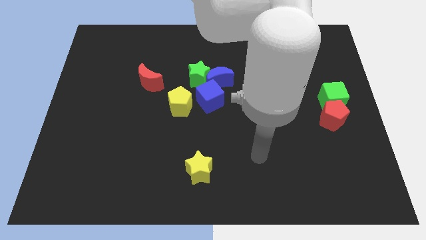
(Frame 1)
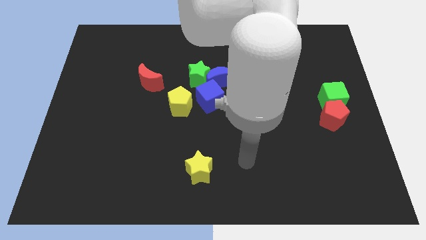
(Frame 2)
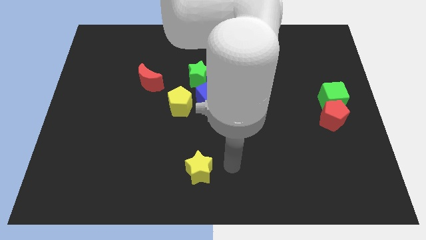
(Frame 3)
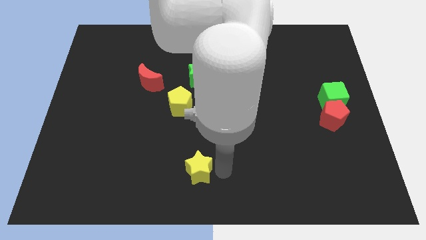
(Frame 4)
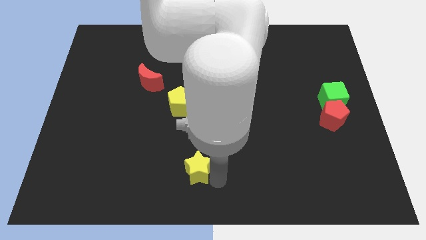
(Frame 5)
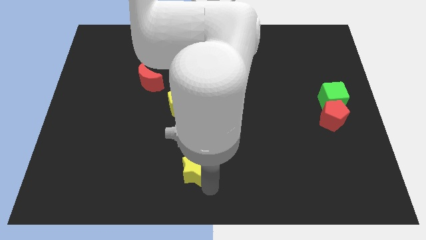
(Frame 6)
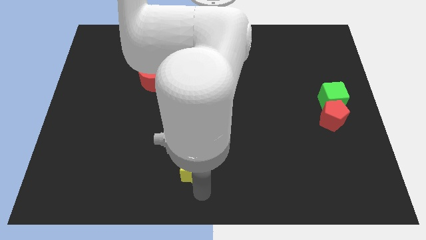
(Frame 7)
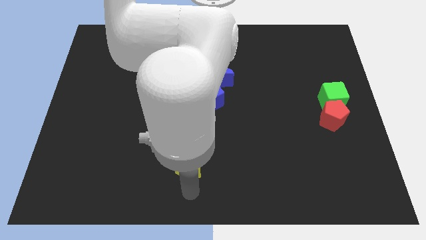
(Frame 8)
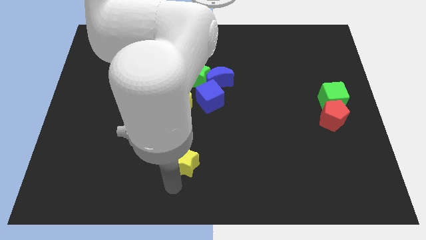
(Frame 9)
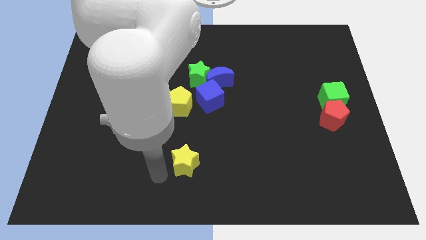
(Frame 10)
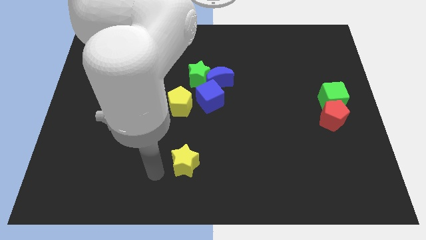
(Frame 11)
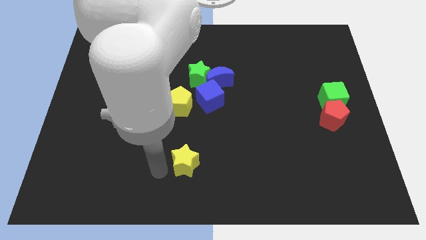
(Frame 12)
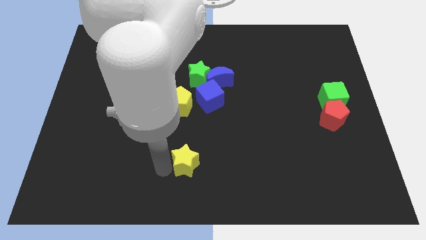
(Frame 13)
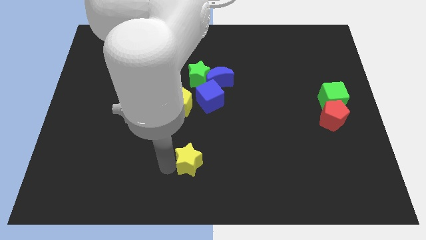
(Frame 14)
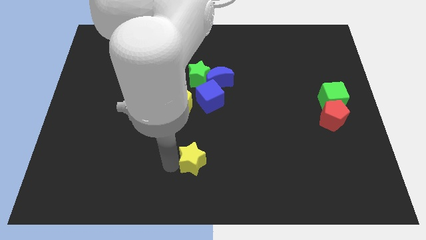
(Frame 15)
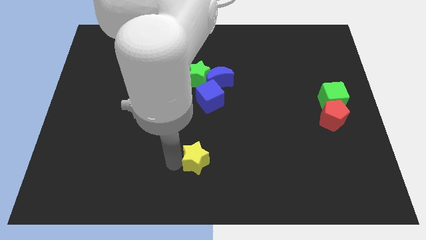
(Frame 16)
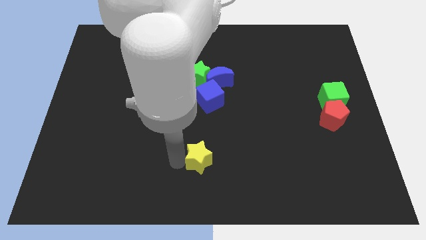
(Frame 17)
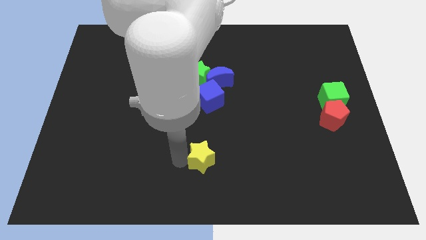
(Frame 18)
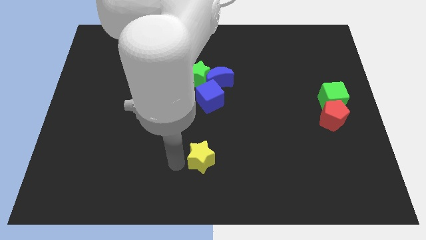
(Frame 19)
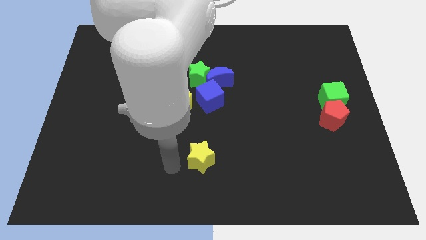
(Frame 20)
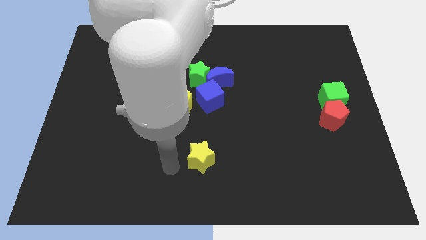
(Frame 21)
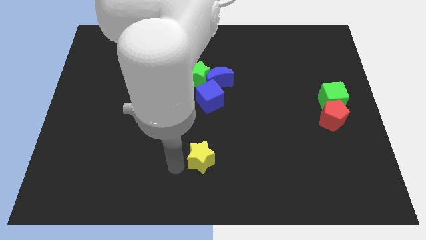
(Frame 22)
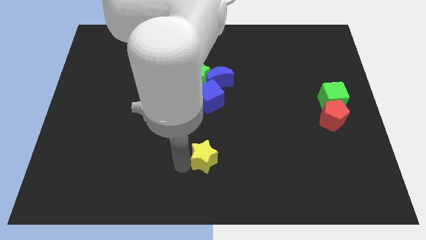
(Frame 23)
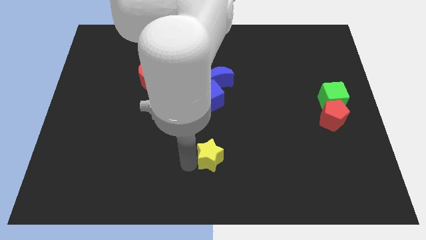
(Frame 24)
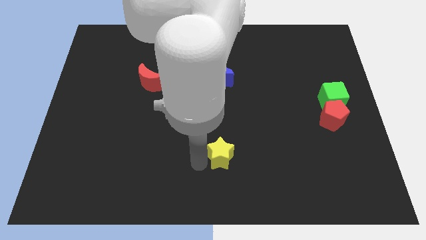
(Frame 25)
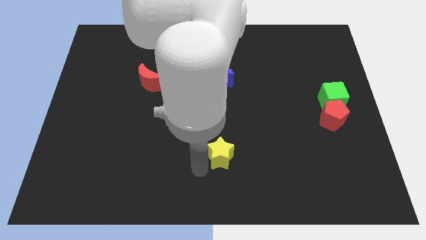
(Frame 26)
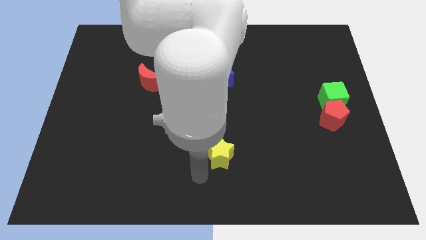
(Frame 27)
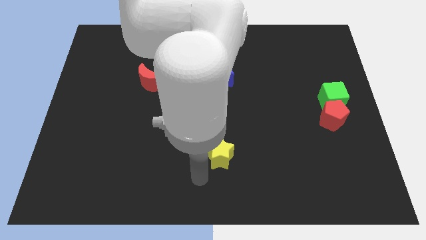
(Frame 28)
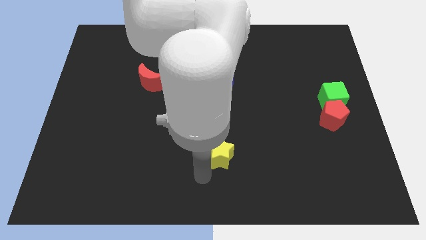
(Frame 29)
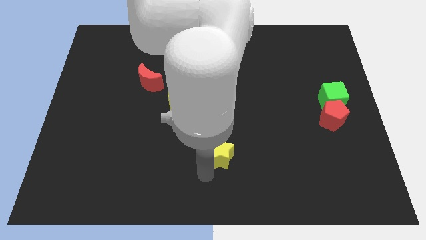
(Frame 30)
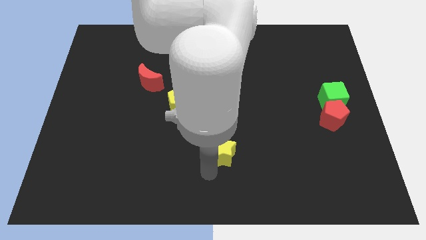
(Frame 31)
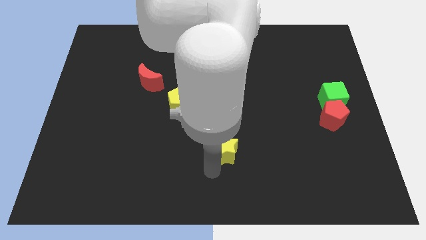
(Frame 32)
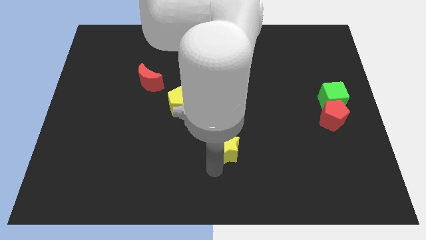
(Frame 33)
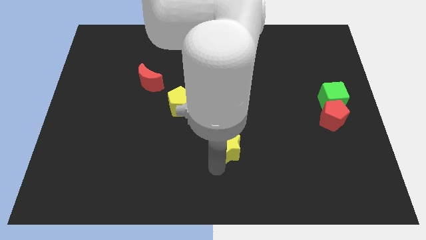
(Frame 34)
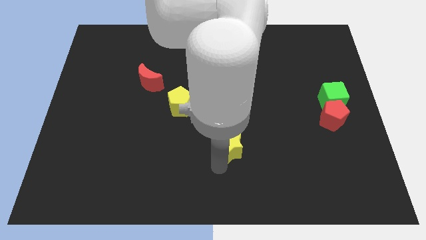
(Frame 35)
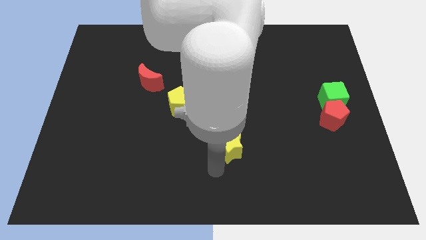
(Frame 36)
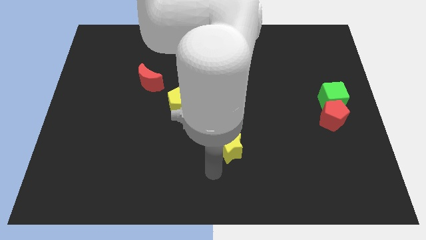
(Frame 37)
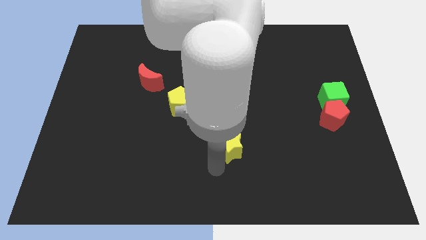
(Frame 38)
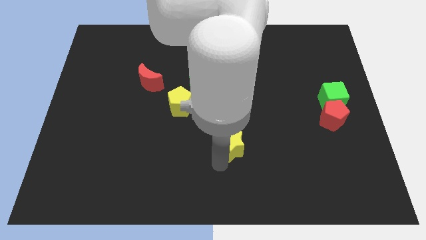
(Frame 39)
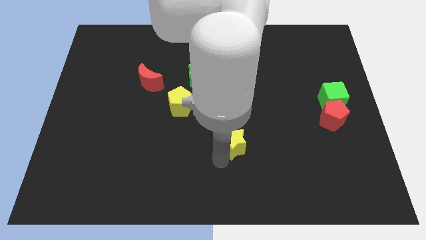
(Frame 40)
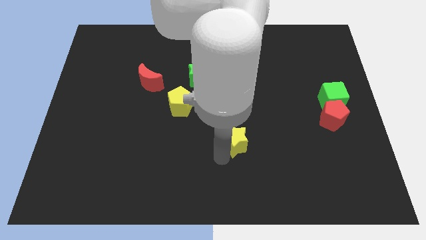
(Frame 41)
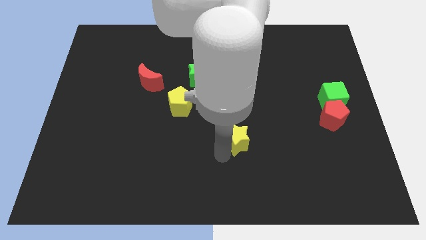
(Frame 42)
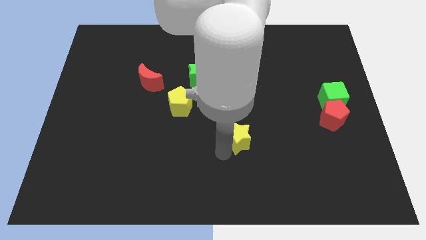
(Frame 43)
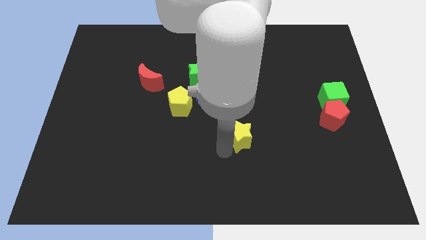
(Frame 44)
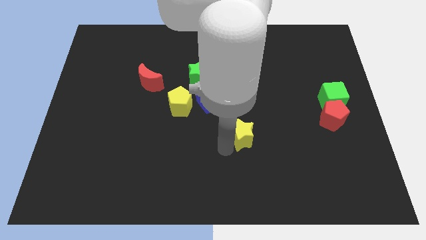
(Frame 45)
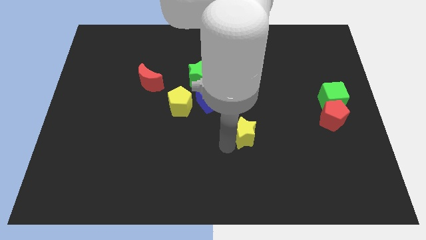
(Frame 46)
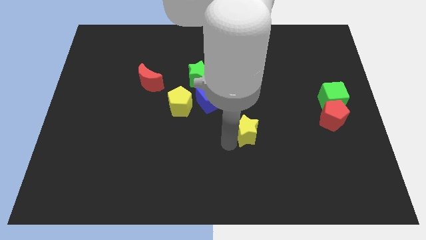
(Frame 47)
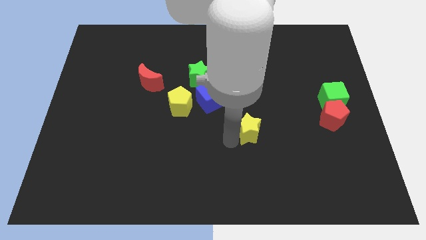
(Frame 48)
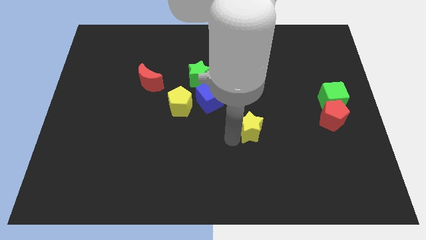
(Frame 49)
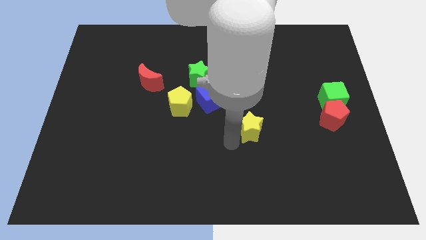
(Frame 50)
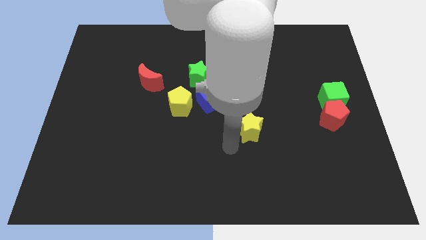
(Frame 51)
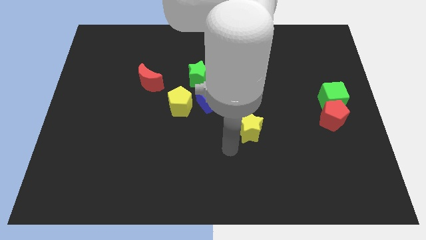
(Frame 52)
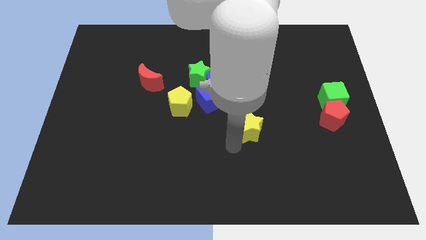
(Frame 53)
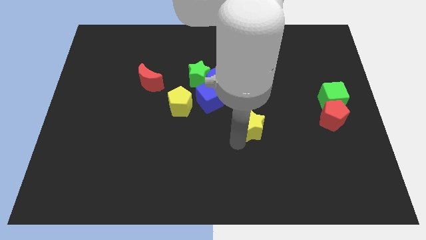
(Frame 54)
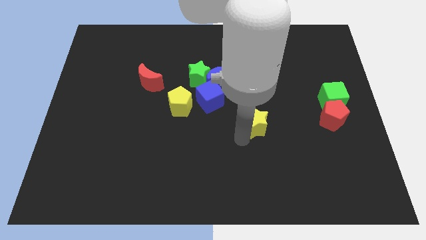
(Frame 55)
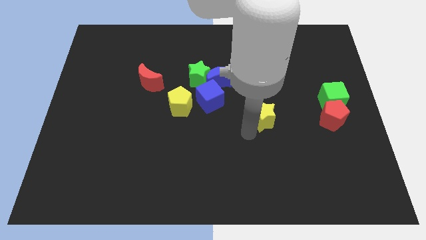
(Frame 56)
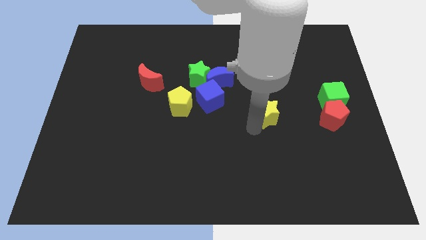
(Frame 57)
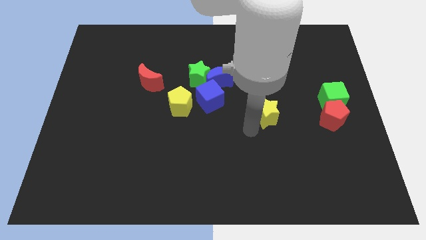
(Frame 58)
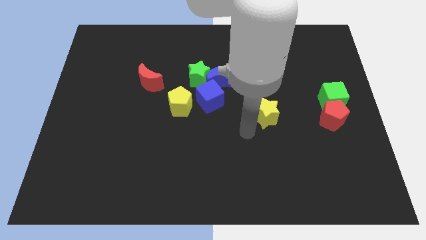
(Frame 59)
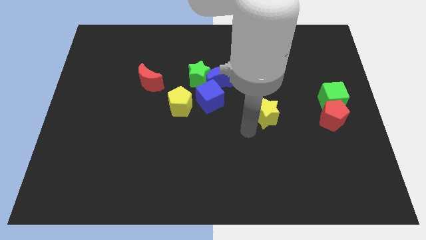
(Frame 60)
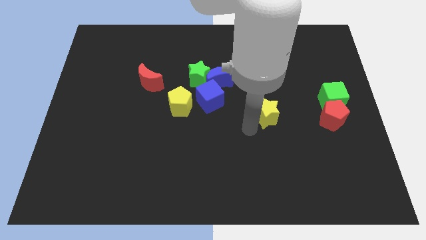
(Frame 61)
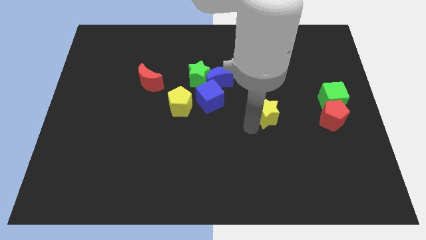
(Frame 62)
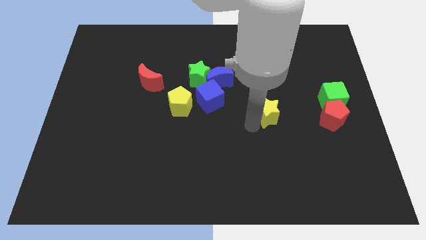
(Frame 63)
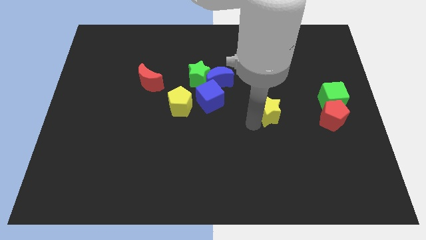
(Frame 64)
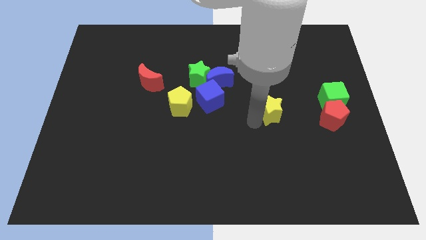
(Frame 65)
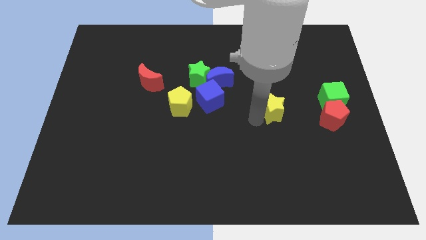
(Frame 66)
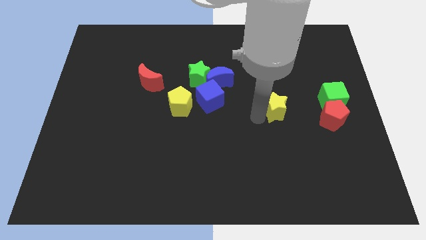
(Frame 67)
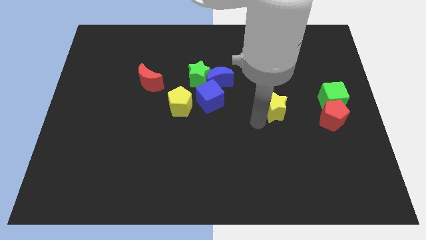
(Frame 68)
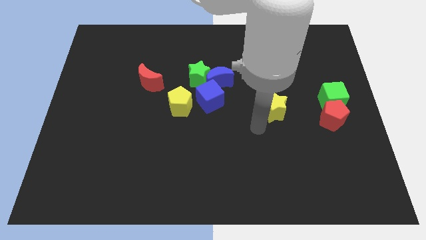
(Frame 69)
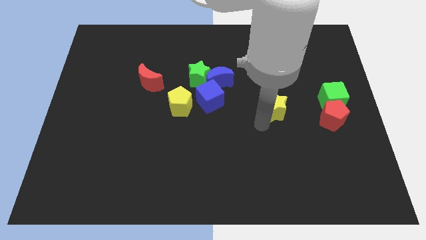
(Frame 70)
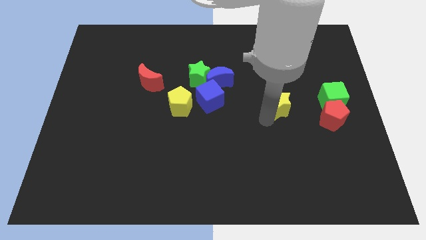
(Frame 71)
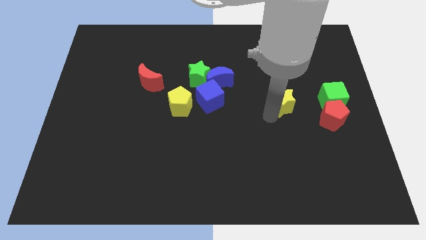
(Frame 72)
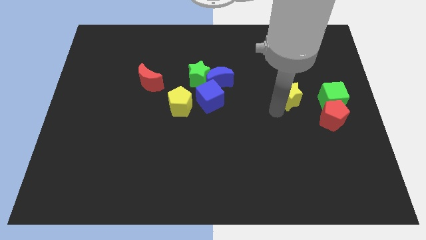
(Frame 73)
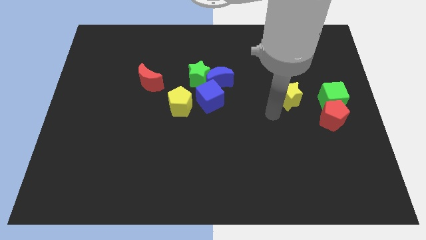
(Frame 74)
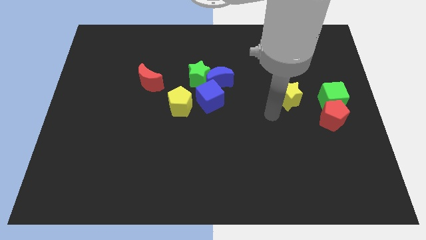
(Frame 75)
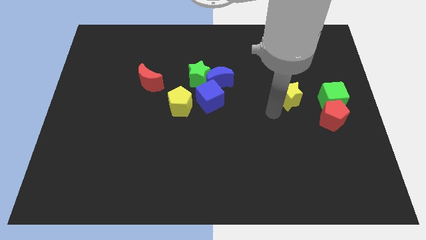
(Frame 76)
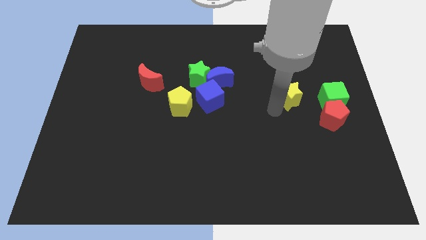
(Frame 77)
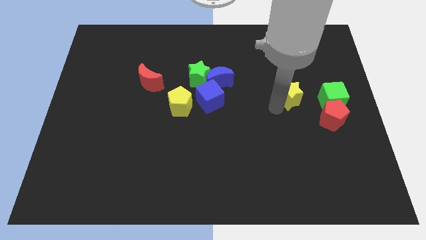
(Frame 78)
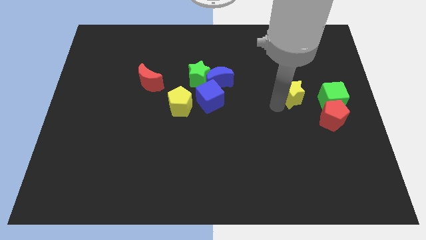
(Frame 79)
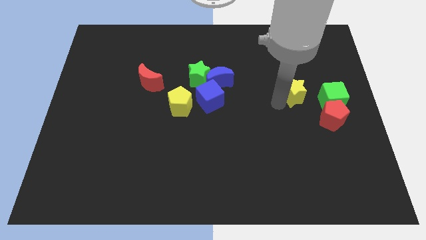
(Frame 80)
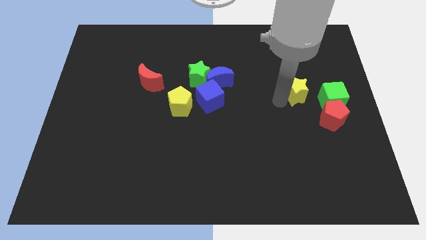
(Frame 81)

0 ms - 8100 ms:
push the yellow star to the top left of the green cube
